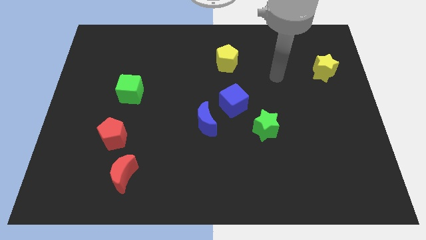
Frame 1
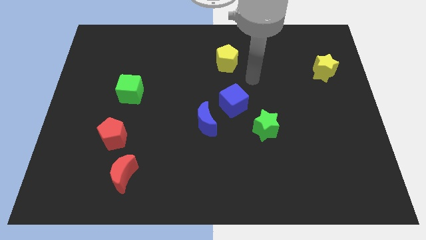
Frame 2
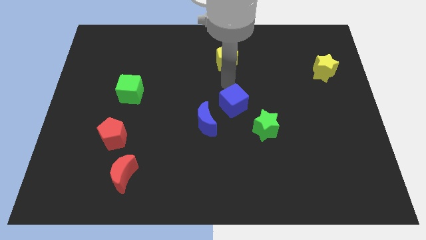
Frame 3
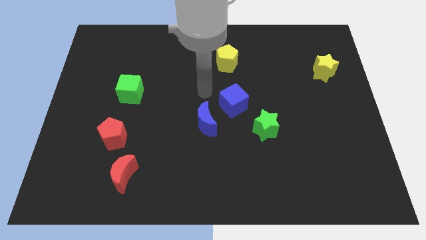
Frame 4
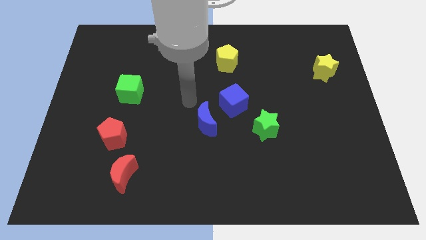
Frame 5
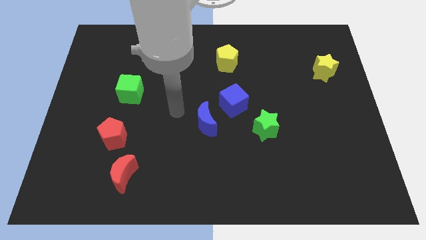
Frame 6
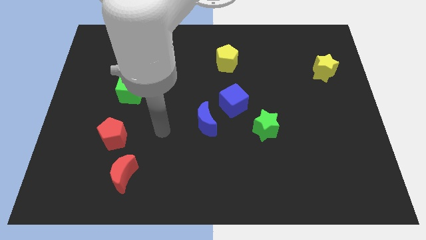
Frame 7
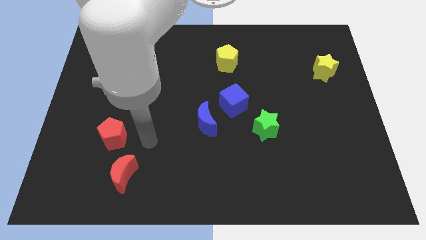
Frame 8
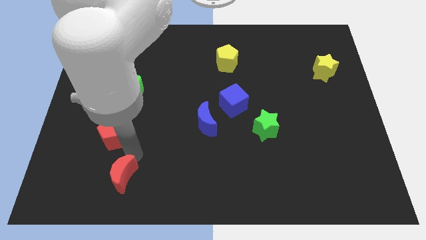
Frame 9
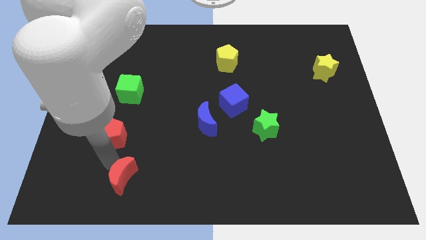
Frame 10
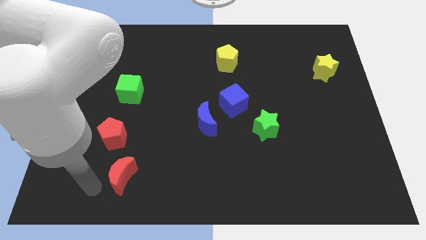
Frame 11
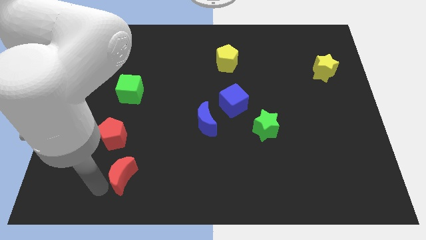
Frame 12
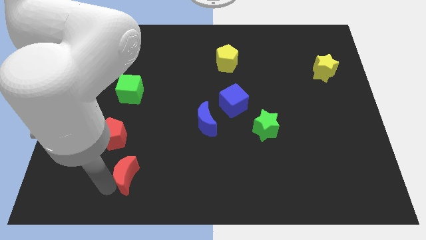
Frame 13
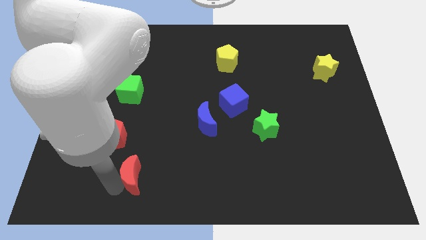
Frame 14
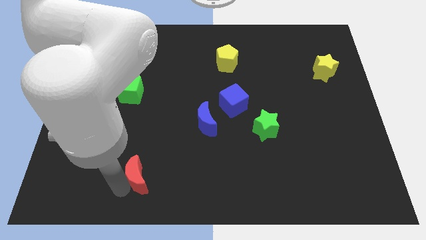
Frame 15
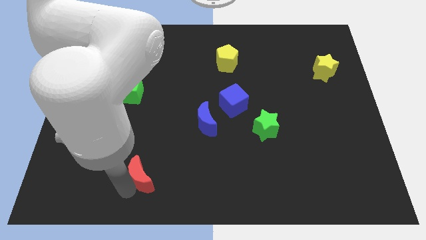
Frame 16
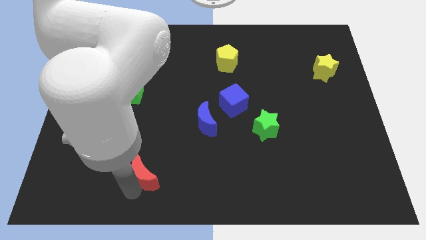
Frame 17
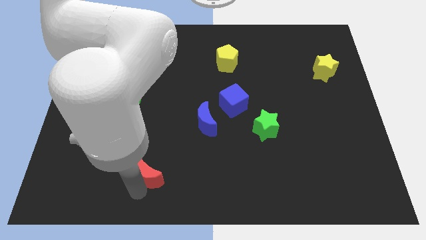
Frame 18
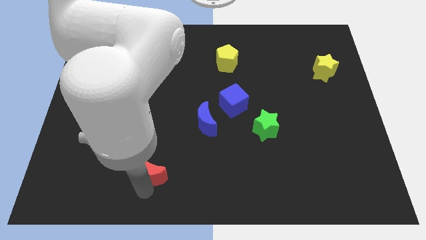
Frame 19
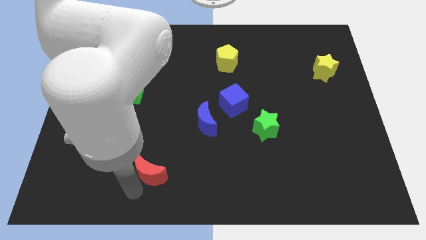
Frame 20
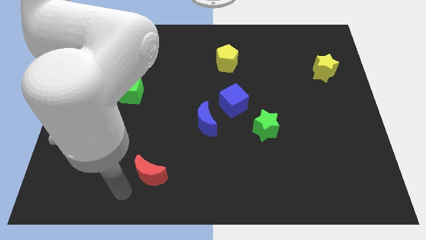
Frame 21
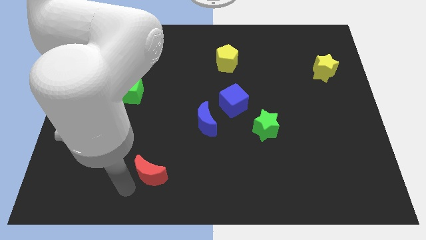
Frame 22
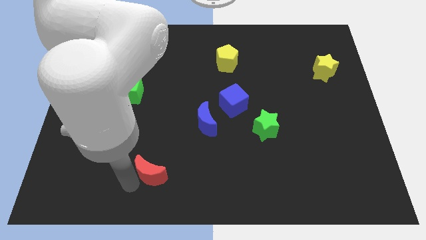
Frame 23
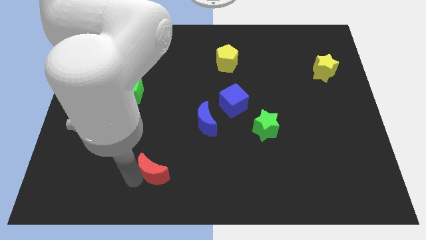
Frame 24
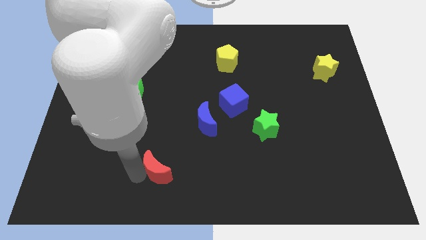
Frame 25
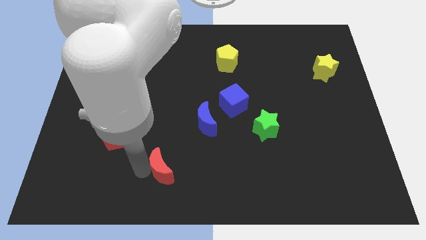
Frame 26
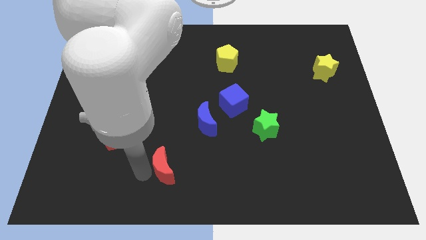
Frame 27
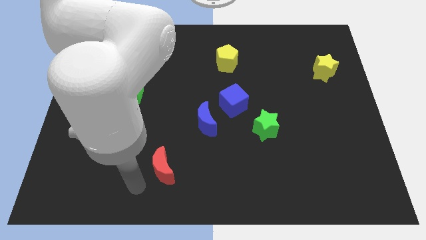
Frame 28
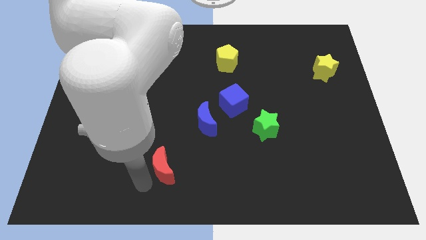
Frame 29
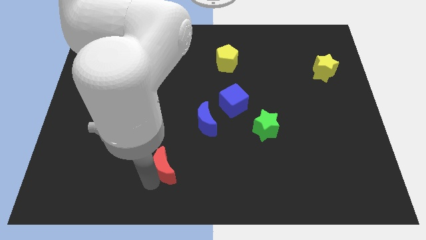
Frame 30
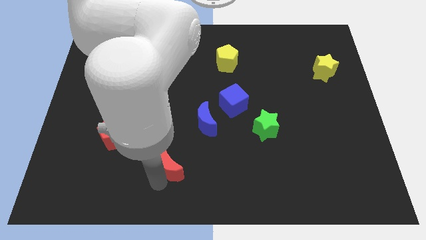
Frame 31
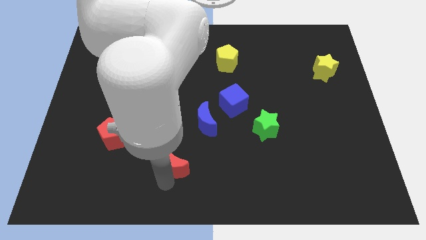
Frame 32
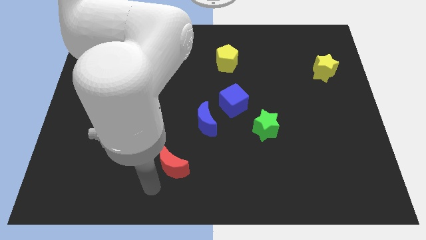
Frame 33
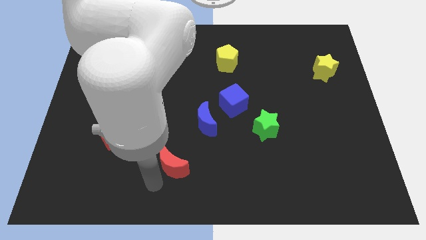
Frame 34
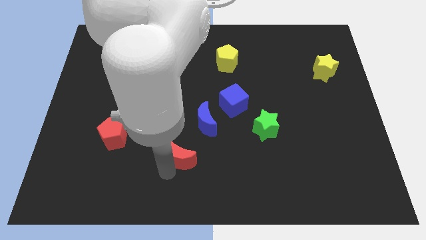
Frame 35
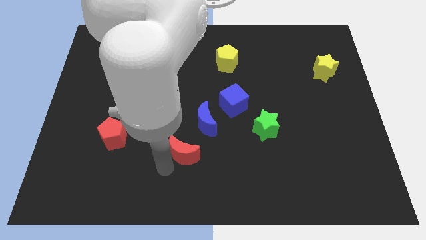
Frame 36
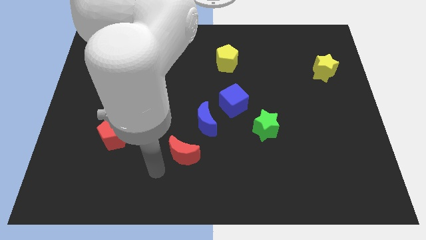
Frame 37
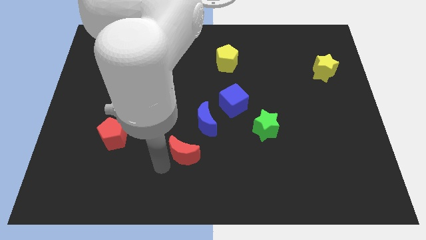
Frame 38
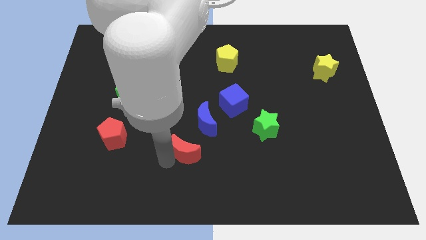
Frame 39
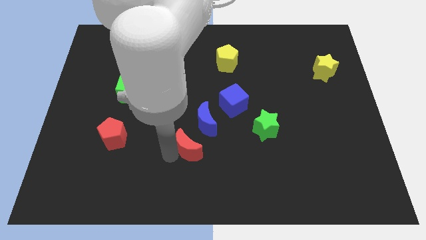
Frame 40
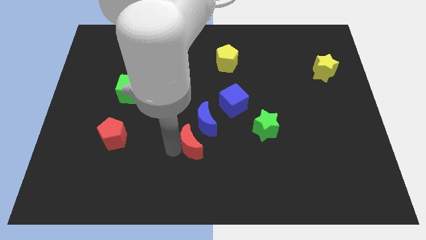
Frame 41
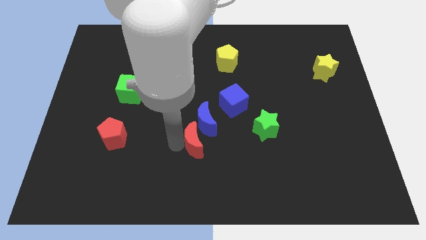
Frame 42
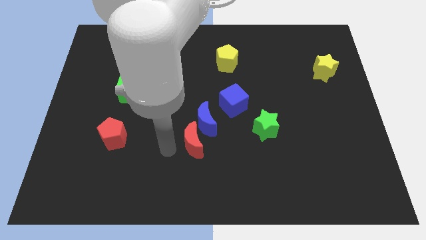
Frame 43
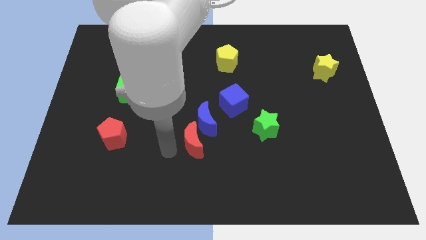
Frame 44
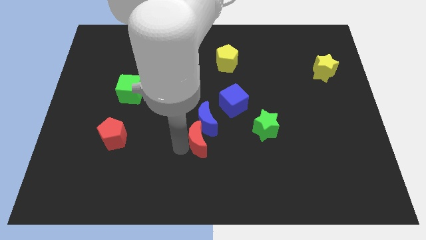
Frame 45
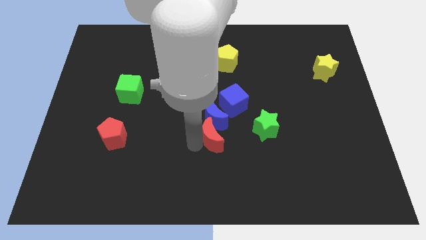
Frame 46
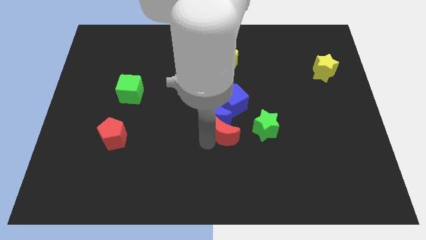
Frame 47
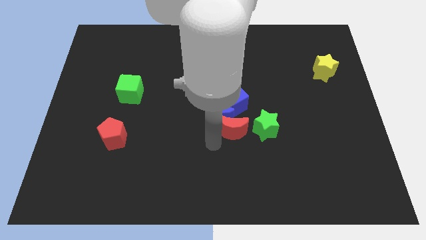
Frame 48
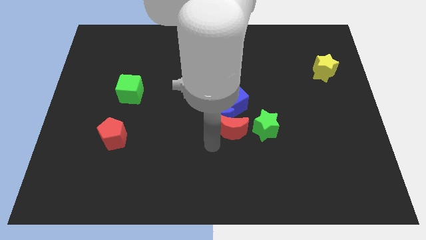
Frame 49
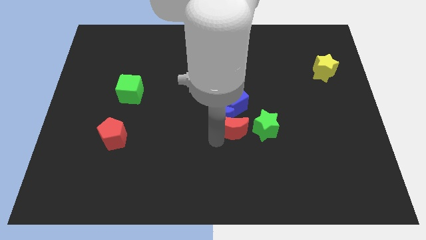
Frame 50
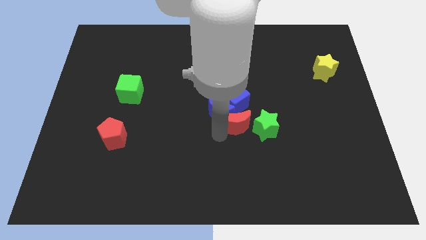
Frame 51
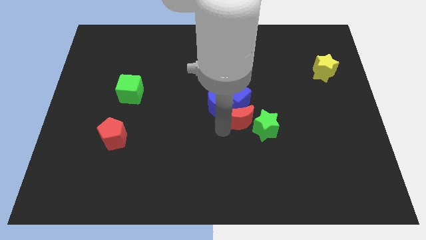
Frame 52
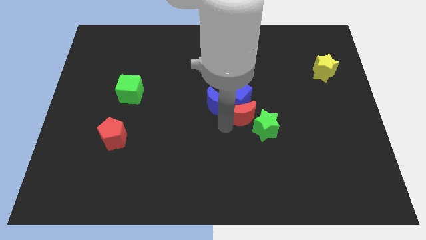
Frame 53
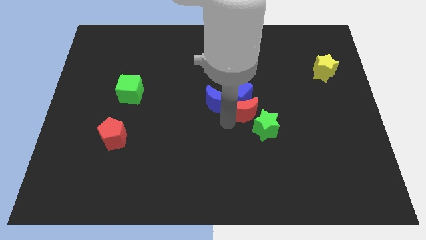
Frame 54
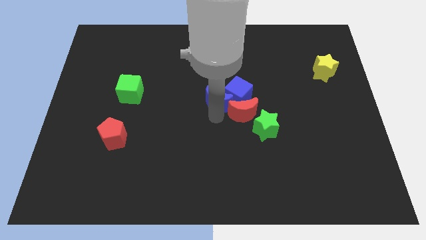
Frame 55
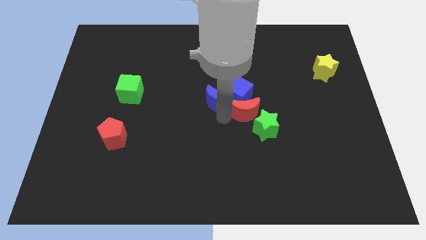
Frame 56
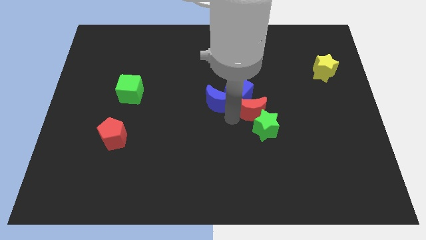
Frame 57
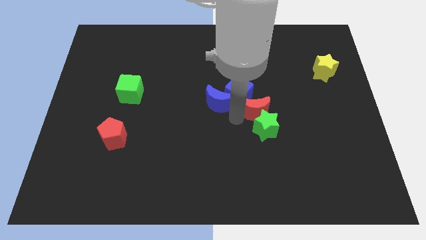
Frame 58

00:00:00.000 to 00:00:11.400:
push the red moon diagonally up and to the right of the green star

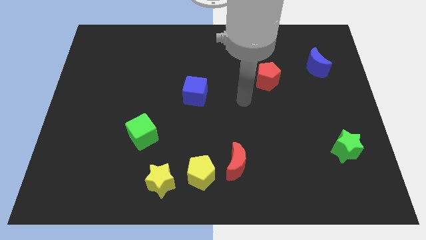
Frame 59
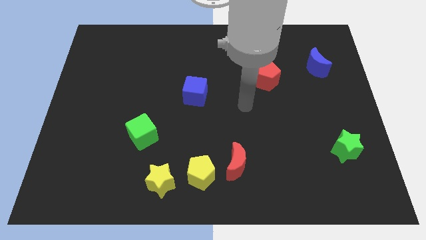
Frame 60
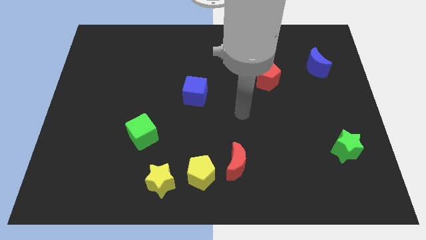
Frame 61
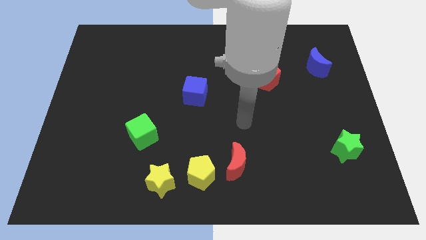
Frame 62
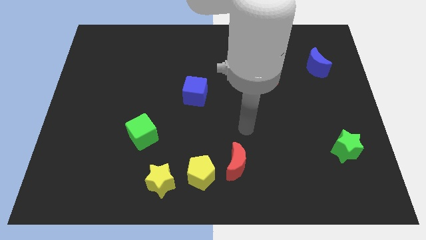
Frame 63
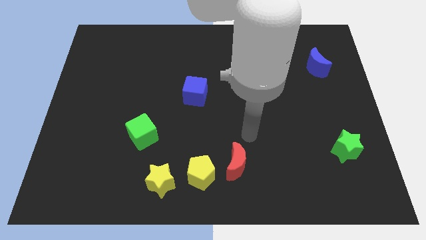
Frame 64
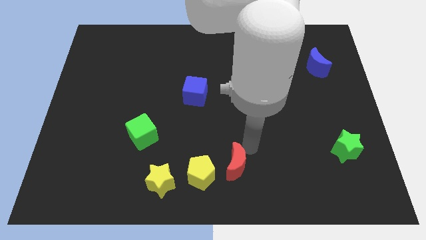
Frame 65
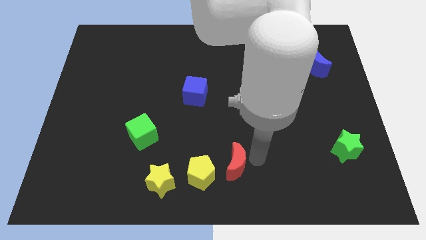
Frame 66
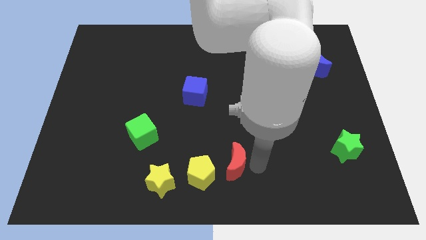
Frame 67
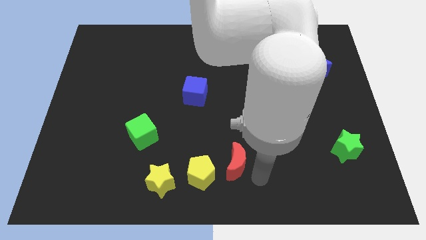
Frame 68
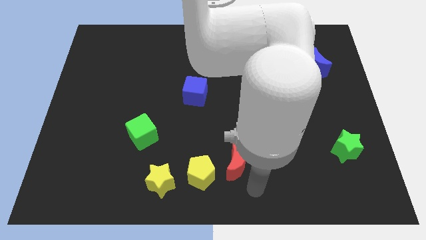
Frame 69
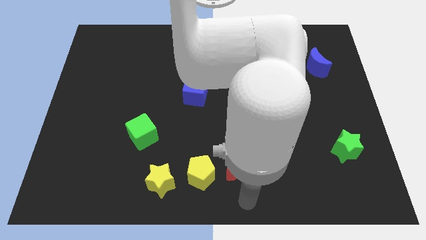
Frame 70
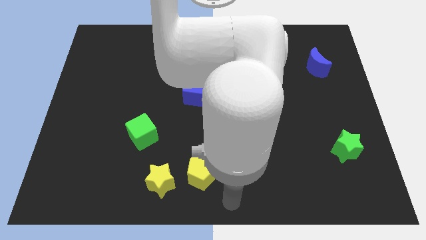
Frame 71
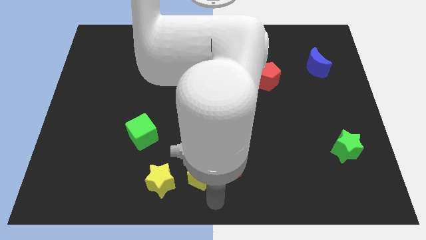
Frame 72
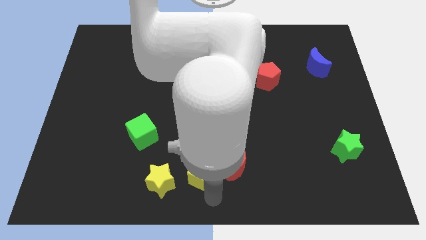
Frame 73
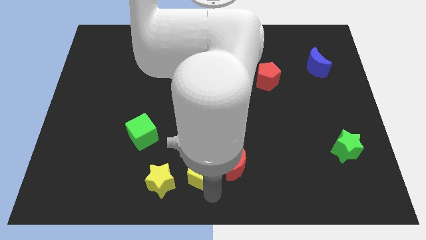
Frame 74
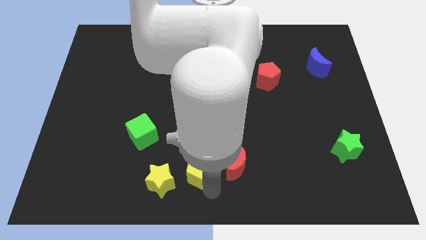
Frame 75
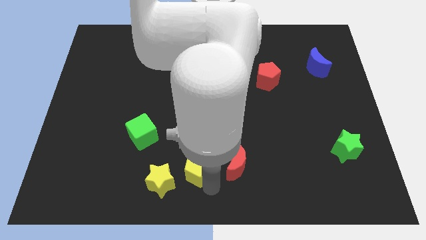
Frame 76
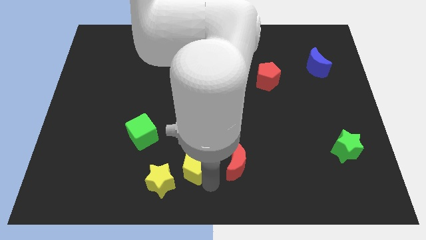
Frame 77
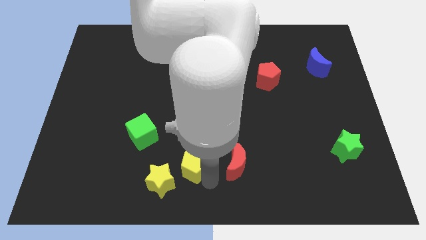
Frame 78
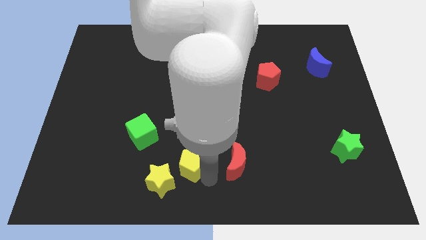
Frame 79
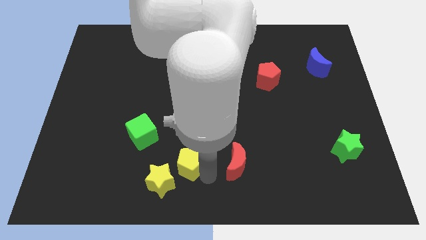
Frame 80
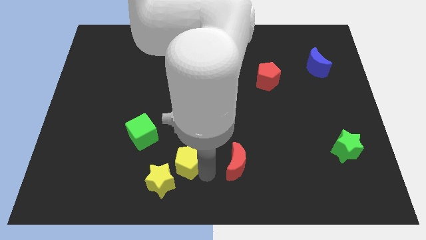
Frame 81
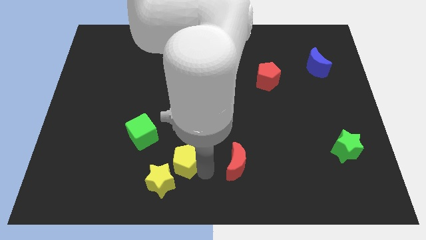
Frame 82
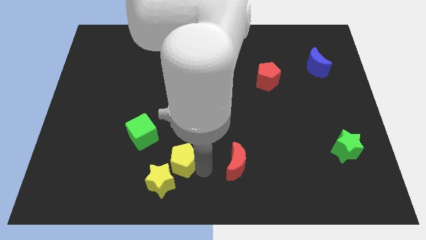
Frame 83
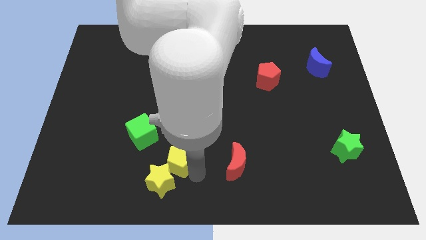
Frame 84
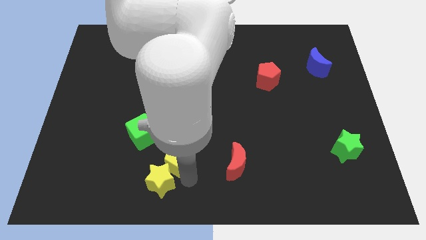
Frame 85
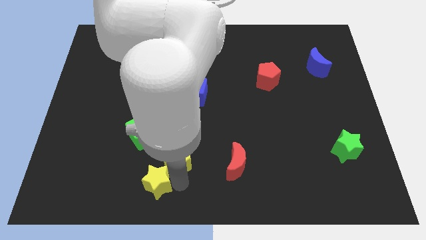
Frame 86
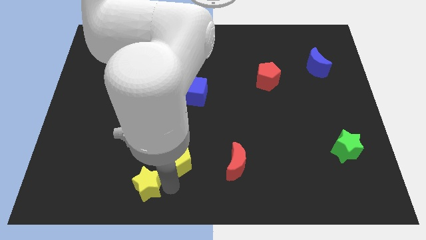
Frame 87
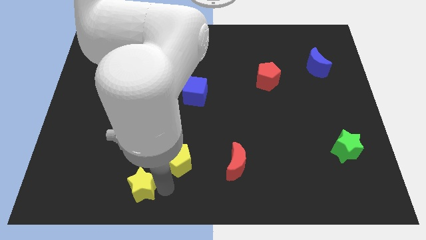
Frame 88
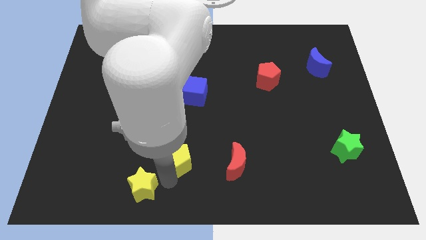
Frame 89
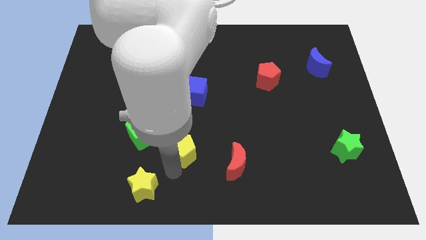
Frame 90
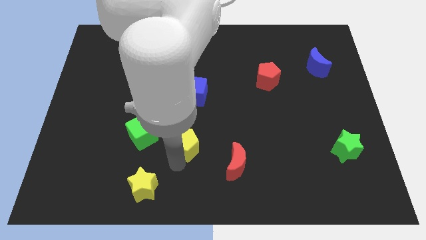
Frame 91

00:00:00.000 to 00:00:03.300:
move the yellow pentagon to the bottom side of the blue cube
